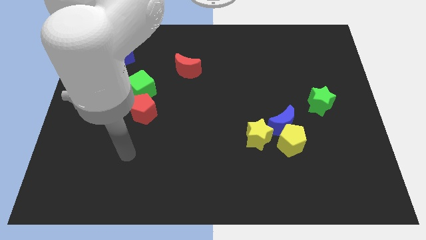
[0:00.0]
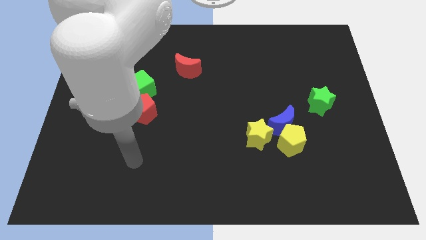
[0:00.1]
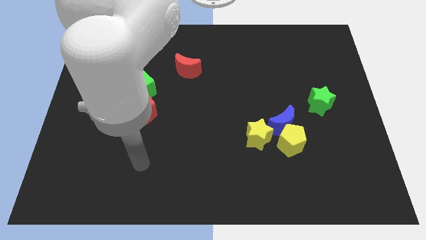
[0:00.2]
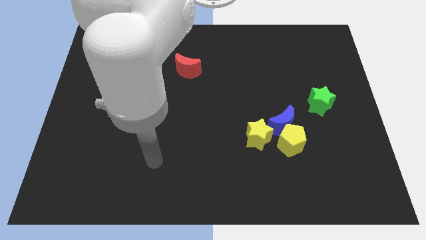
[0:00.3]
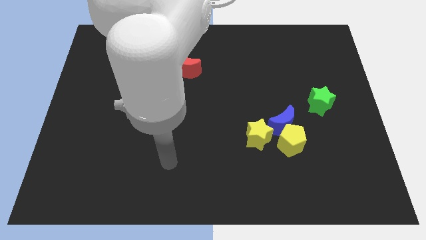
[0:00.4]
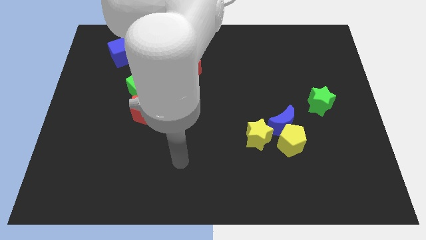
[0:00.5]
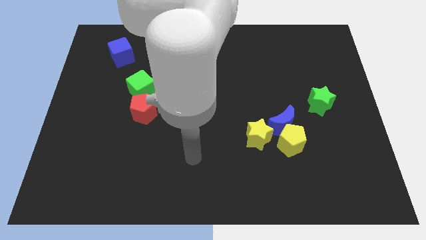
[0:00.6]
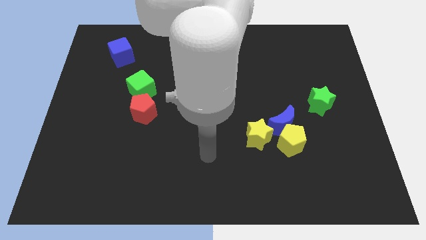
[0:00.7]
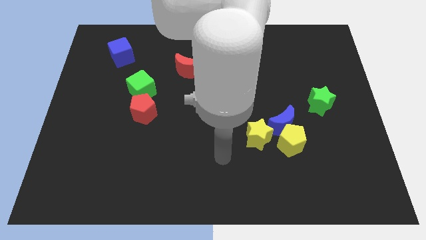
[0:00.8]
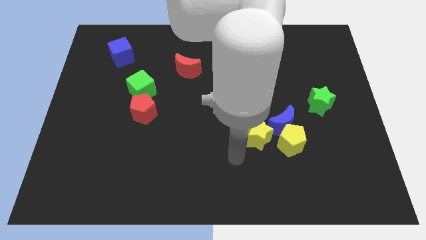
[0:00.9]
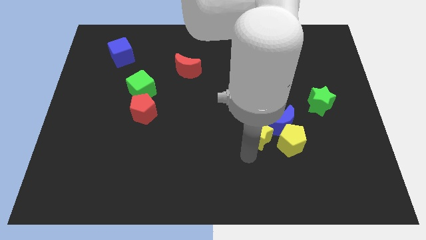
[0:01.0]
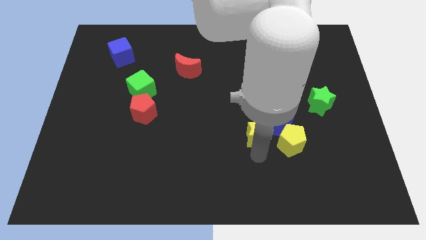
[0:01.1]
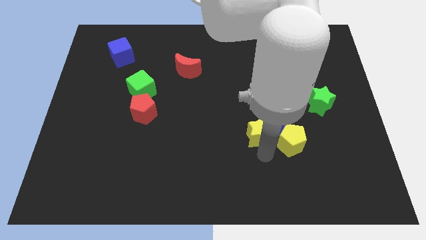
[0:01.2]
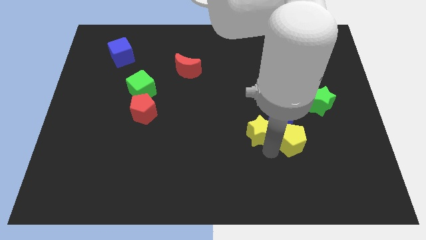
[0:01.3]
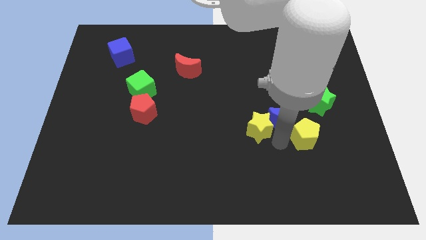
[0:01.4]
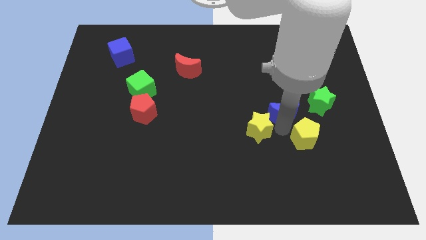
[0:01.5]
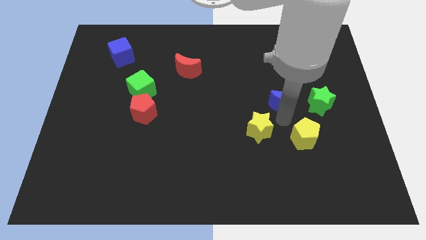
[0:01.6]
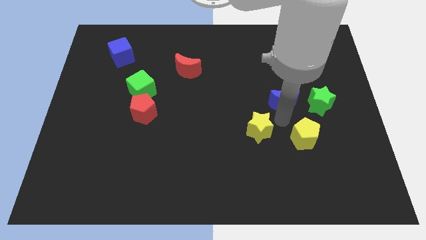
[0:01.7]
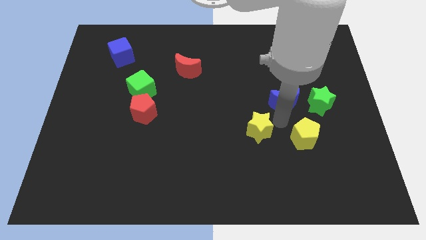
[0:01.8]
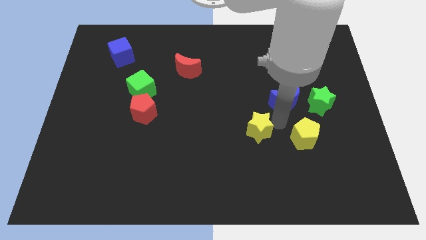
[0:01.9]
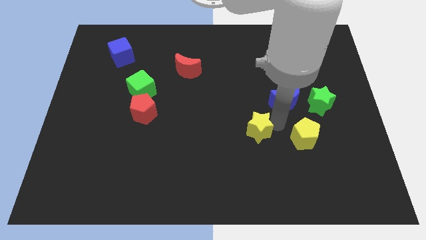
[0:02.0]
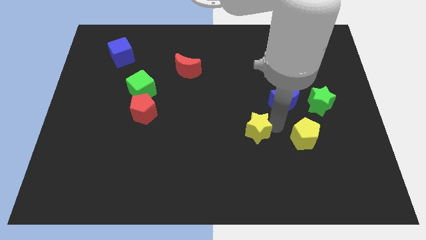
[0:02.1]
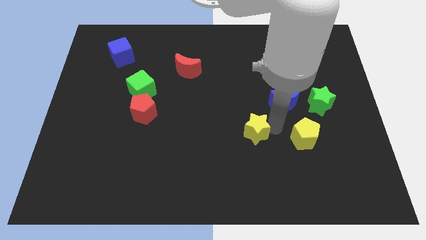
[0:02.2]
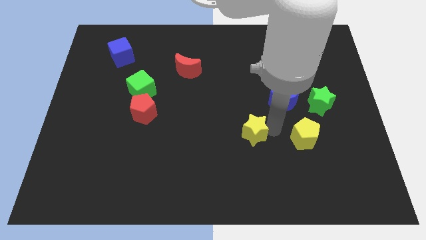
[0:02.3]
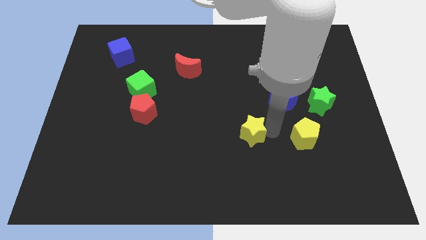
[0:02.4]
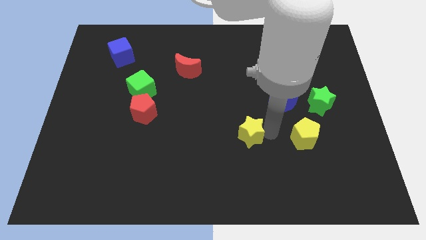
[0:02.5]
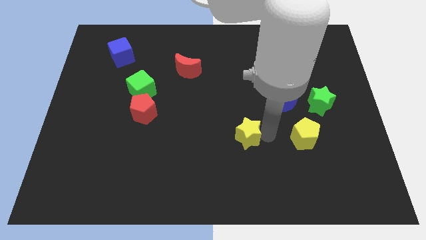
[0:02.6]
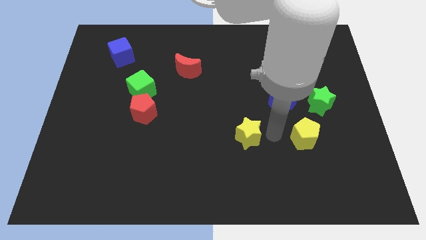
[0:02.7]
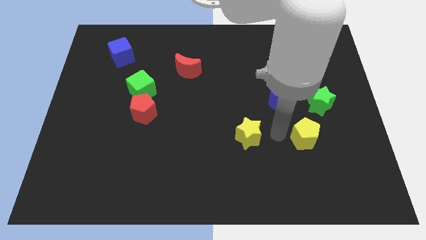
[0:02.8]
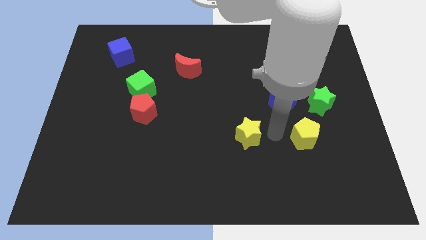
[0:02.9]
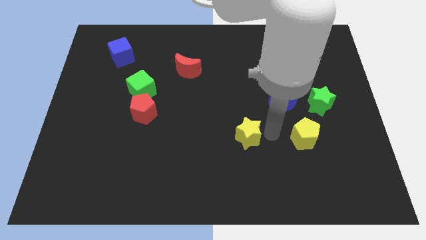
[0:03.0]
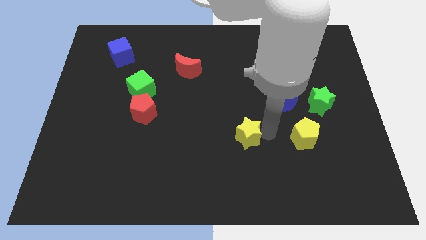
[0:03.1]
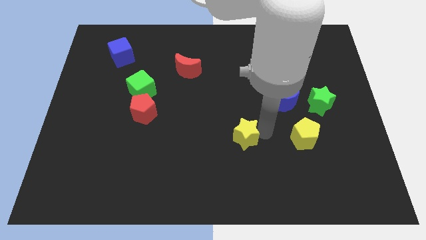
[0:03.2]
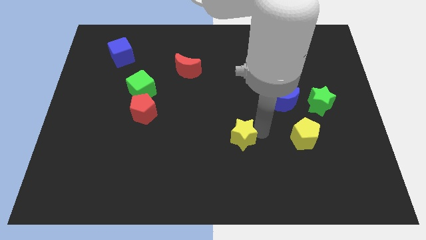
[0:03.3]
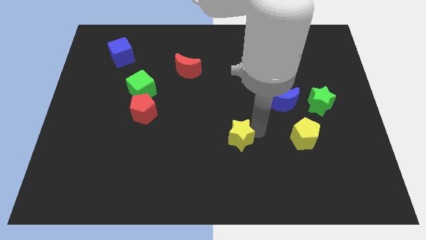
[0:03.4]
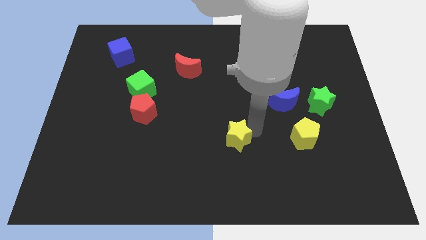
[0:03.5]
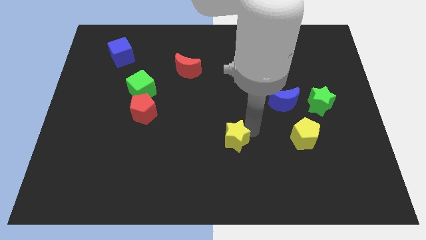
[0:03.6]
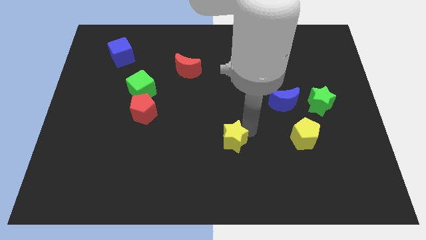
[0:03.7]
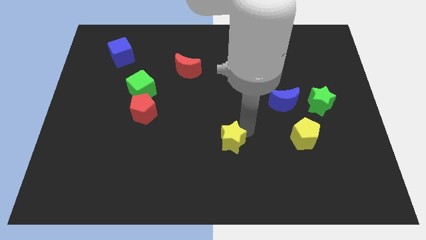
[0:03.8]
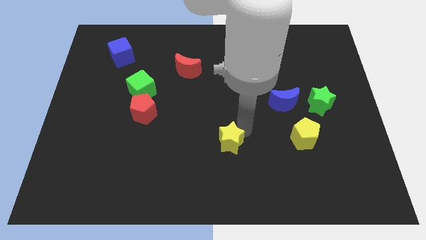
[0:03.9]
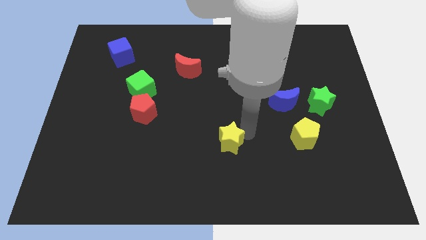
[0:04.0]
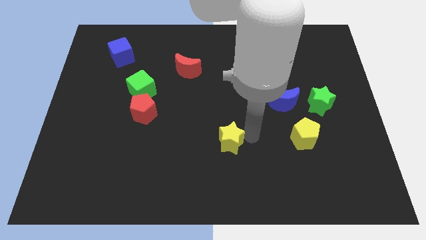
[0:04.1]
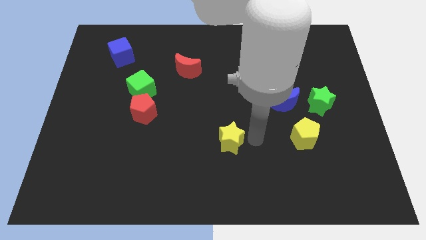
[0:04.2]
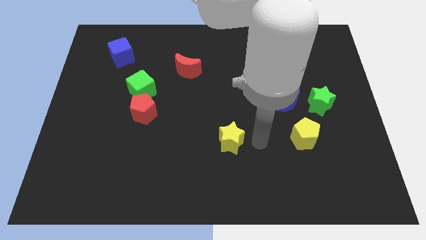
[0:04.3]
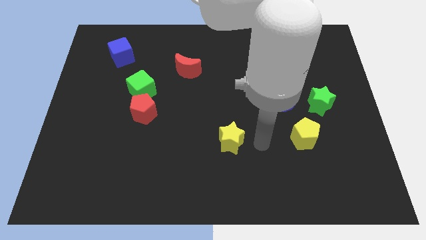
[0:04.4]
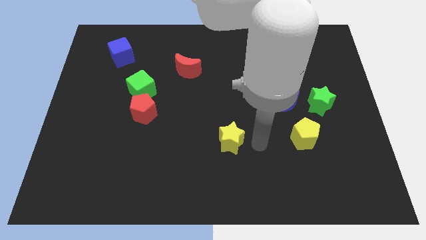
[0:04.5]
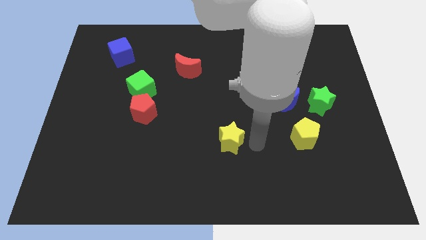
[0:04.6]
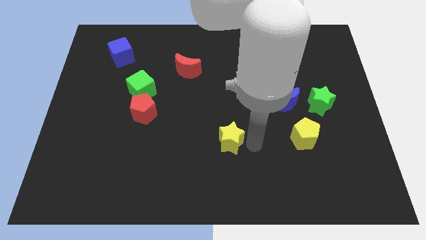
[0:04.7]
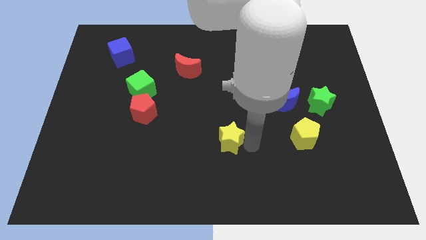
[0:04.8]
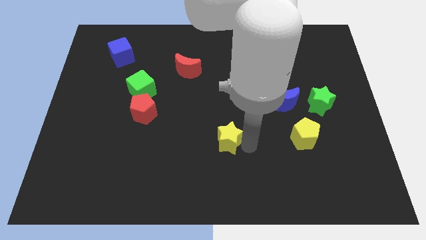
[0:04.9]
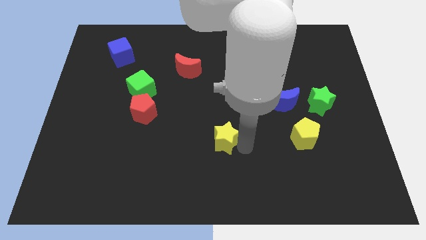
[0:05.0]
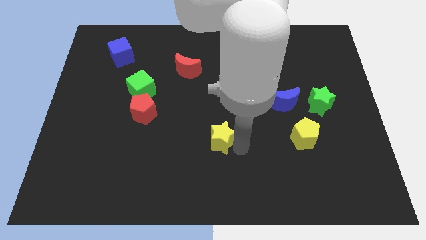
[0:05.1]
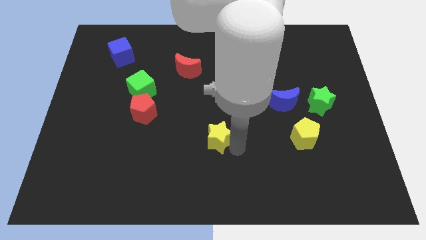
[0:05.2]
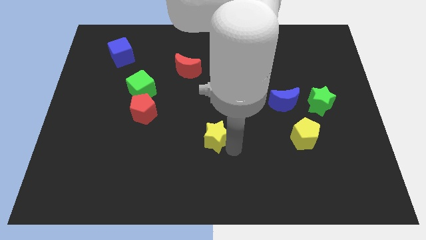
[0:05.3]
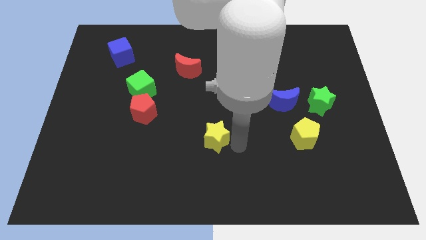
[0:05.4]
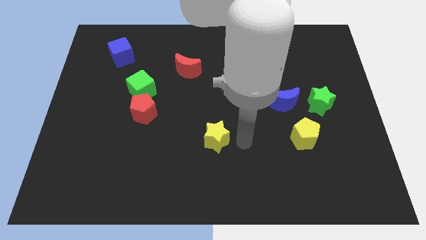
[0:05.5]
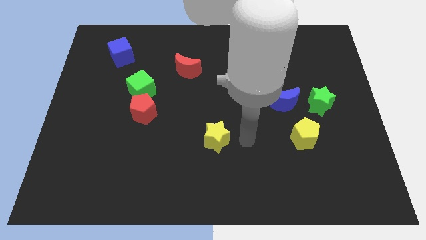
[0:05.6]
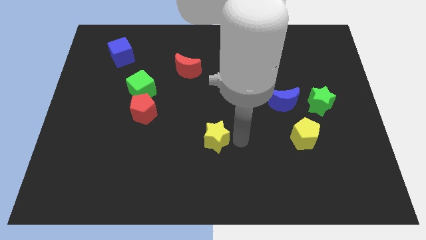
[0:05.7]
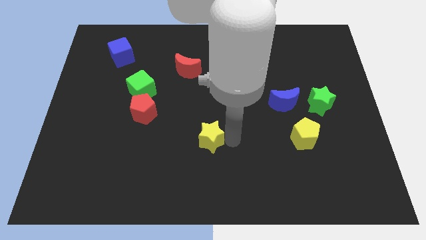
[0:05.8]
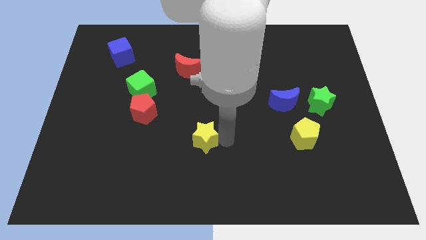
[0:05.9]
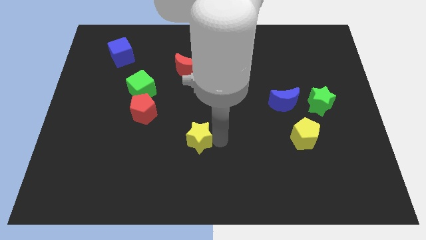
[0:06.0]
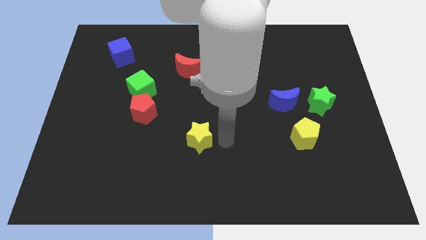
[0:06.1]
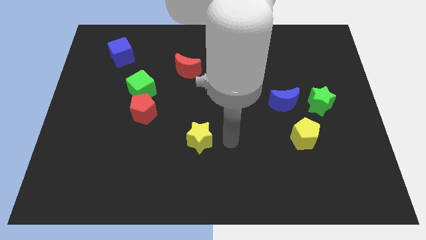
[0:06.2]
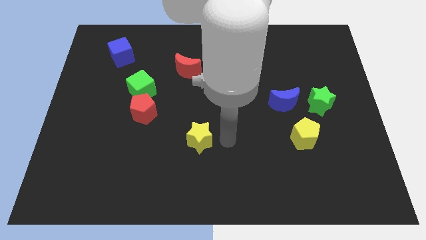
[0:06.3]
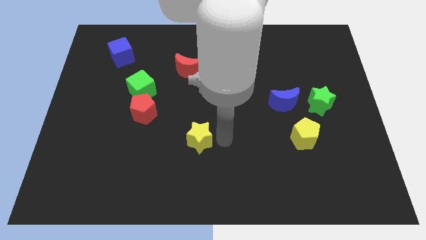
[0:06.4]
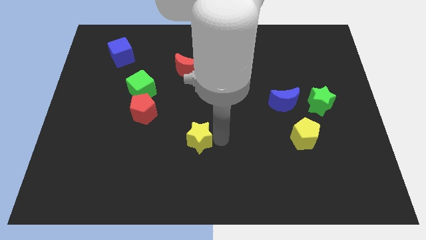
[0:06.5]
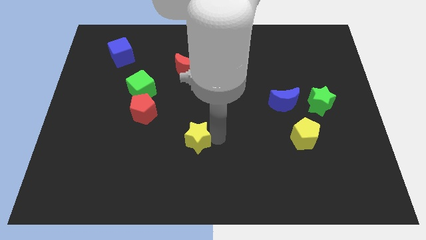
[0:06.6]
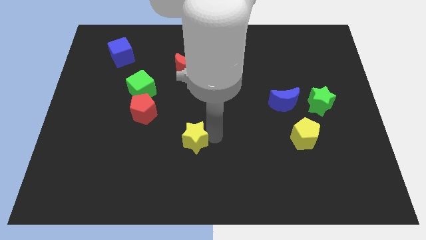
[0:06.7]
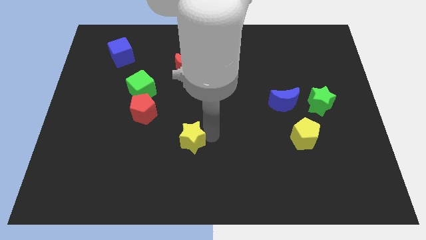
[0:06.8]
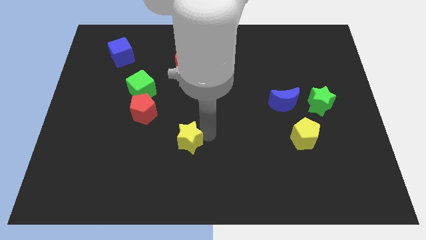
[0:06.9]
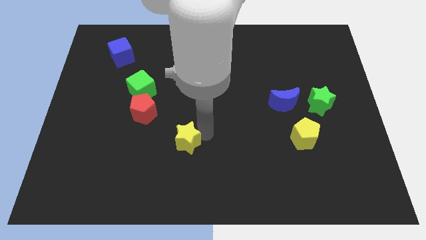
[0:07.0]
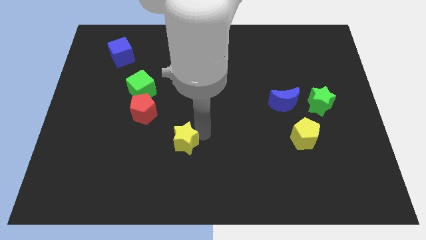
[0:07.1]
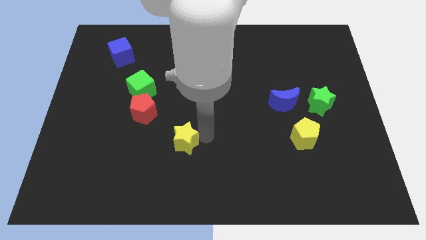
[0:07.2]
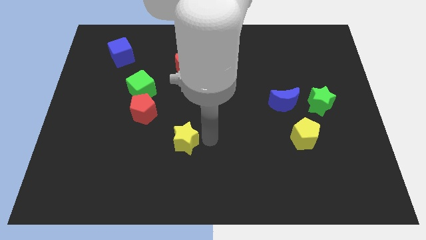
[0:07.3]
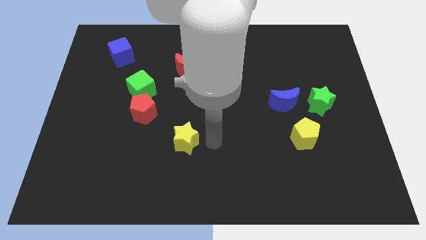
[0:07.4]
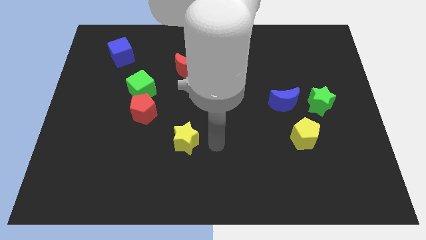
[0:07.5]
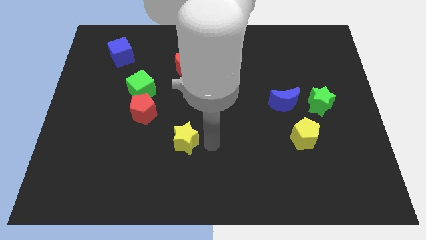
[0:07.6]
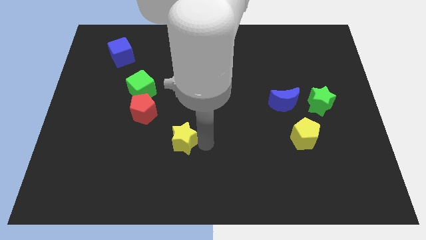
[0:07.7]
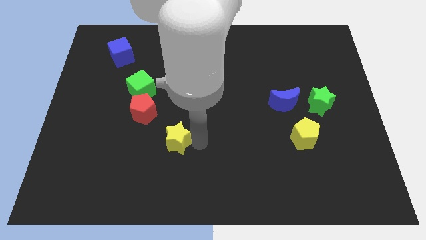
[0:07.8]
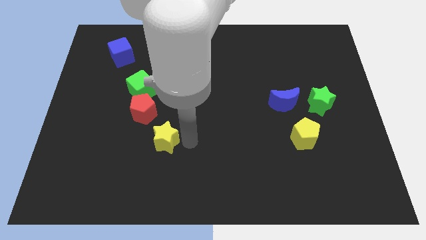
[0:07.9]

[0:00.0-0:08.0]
slide the yellow star left
